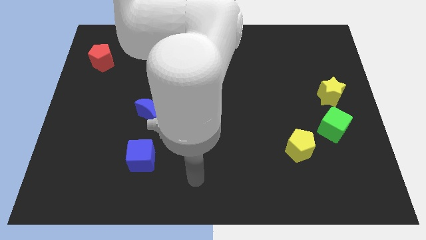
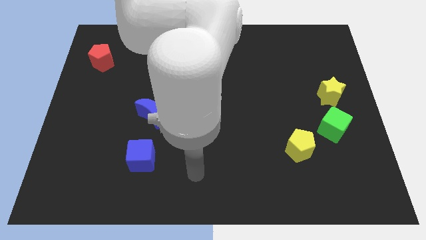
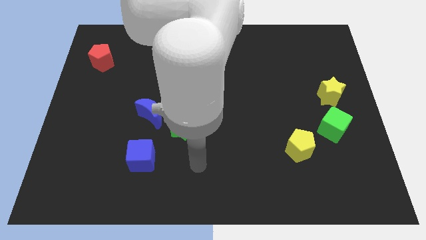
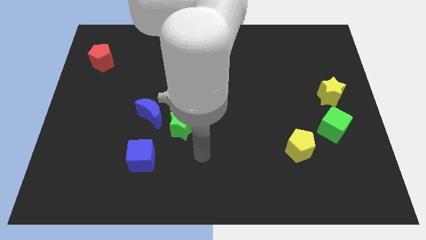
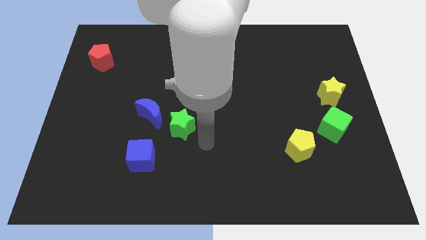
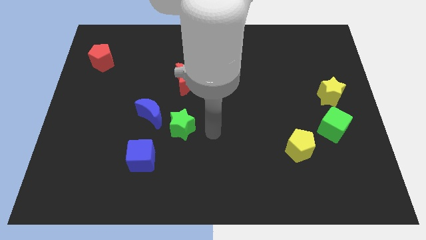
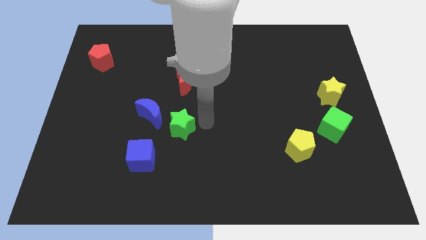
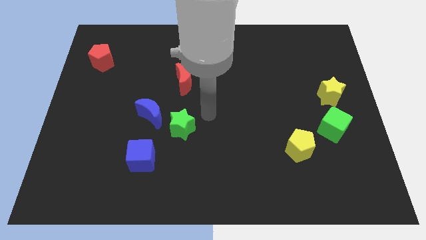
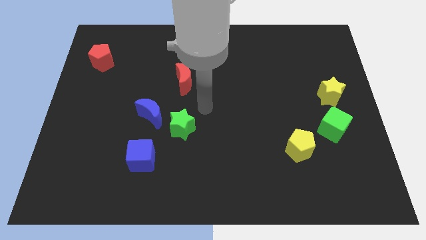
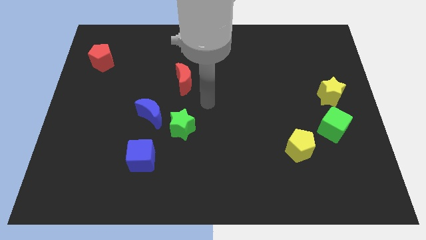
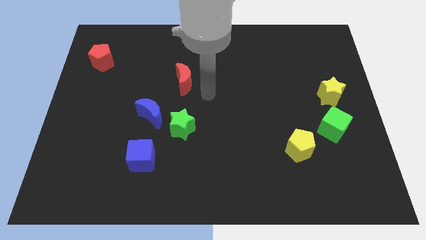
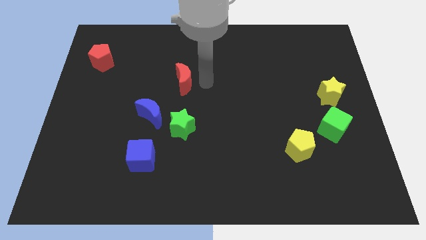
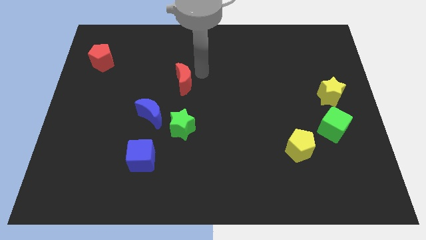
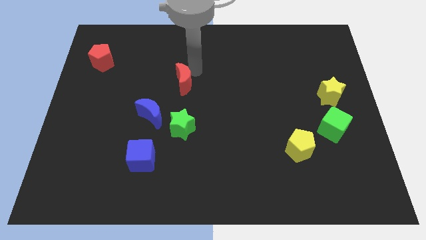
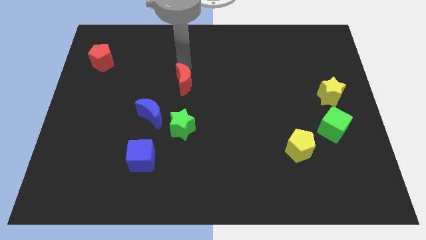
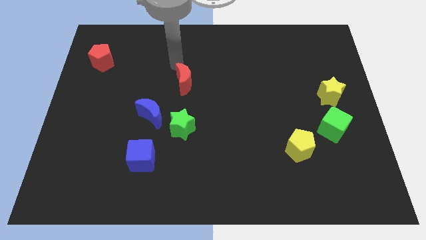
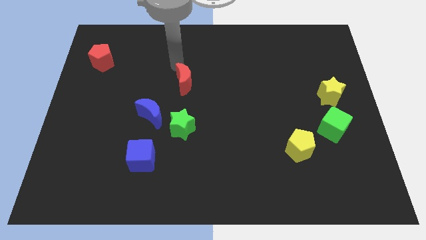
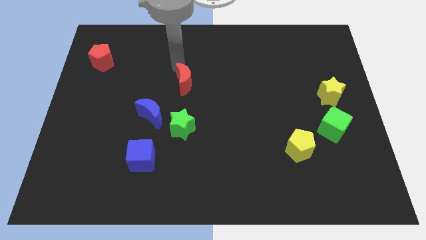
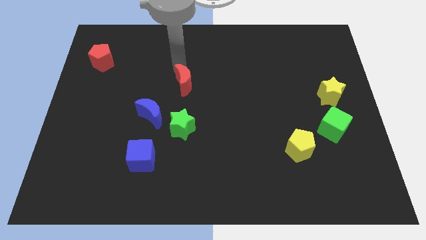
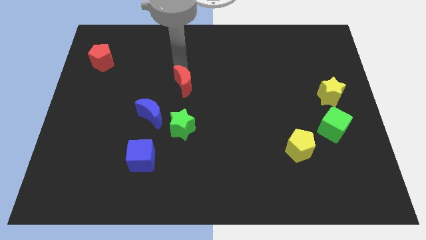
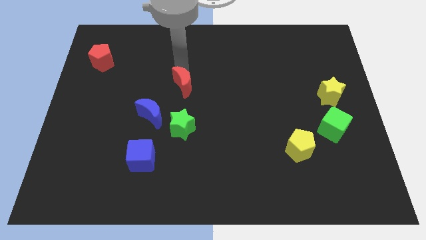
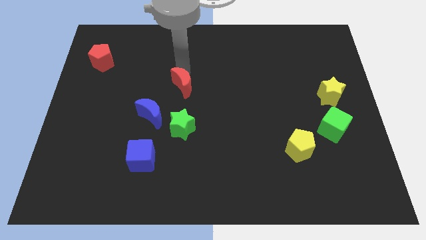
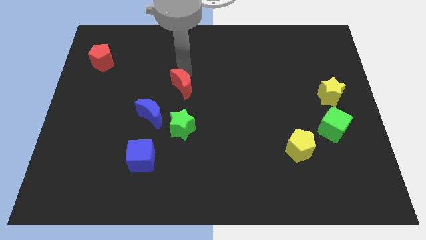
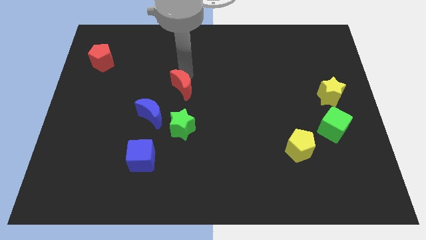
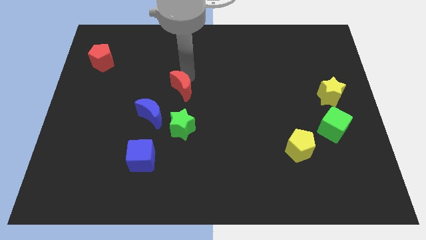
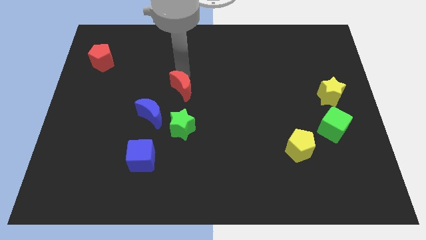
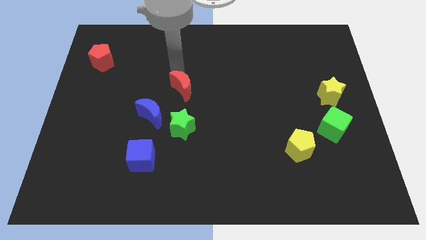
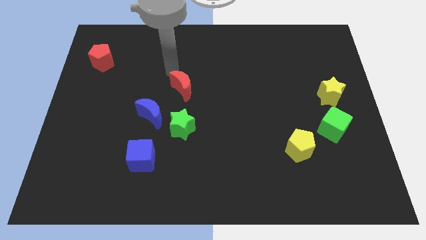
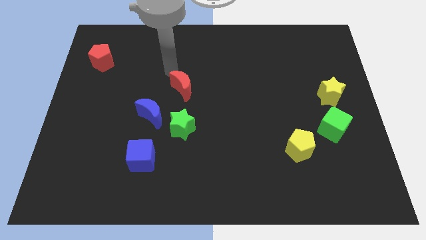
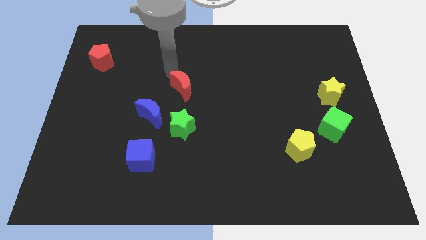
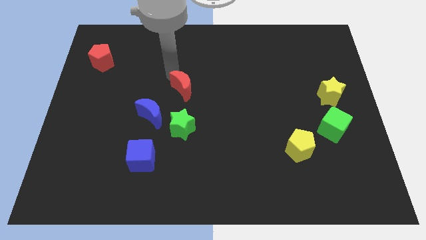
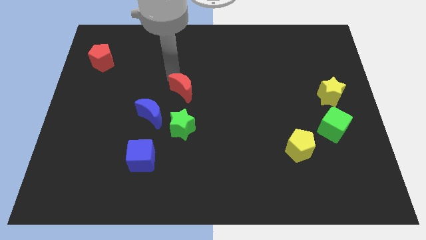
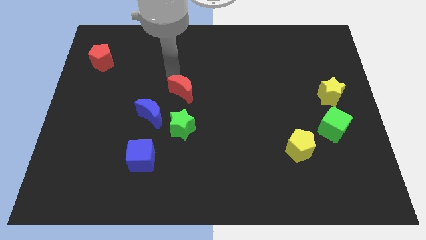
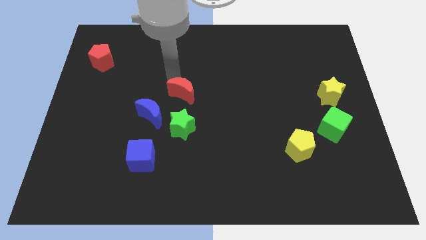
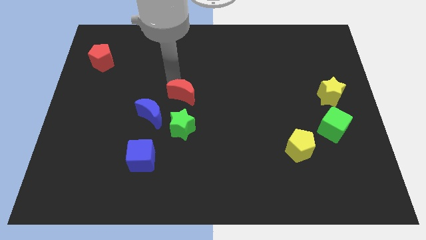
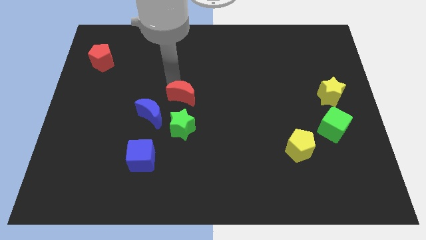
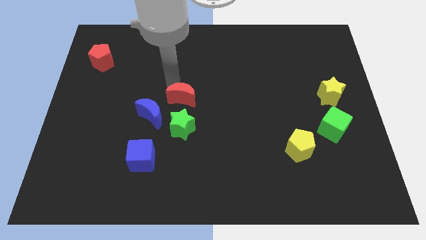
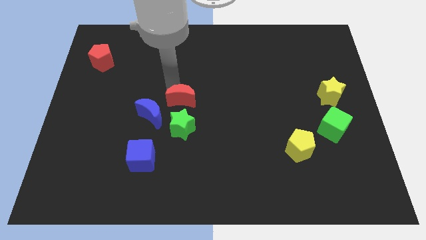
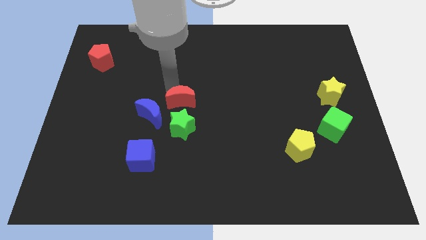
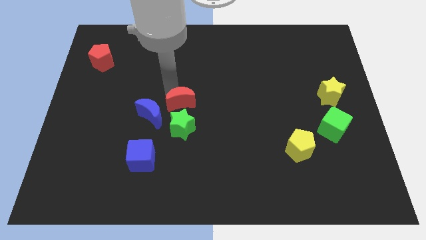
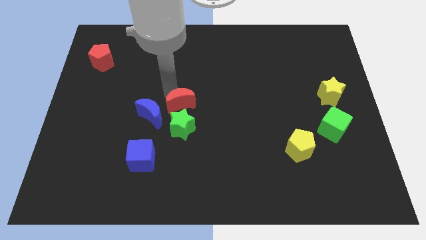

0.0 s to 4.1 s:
move the red moon a bit down

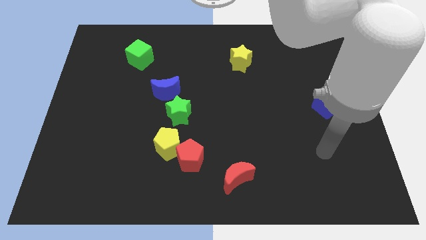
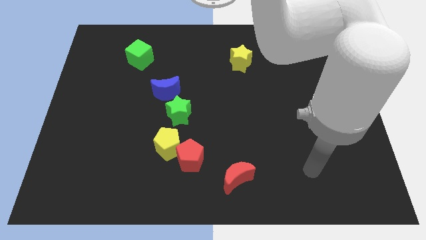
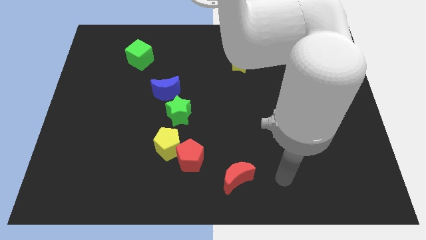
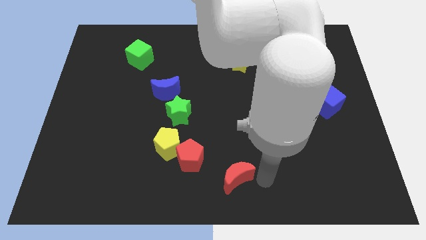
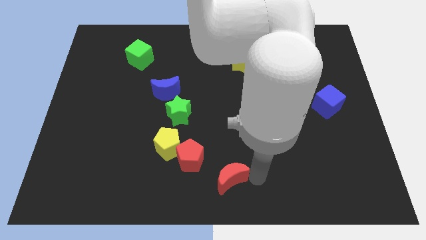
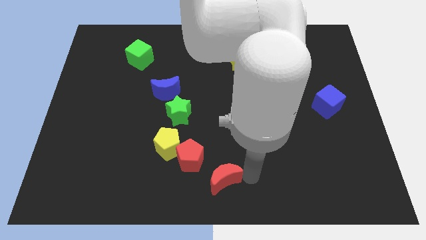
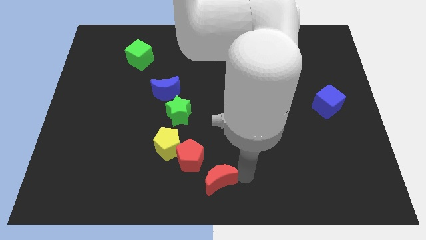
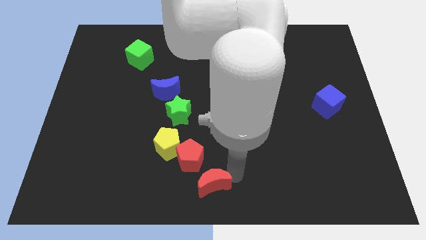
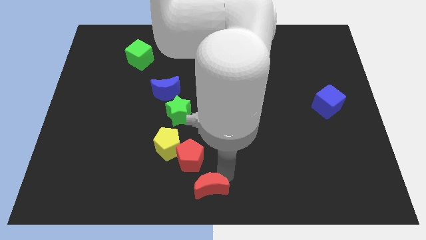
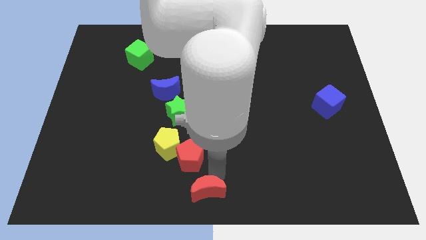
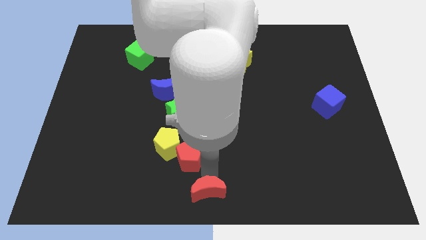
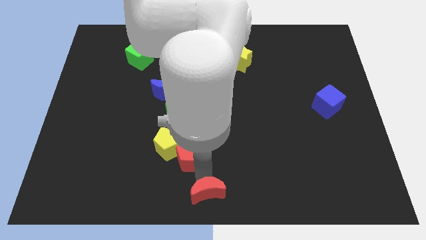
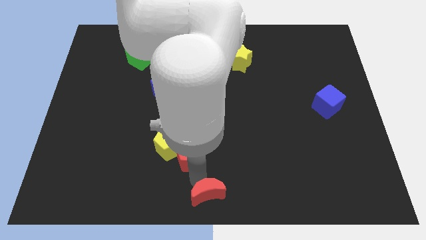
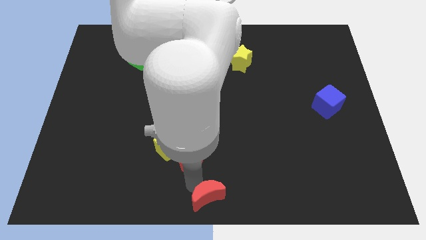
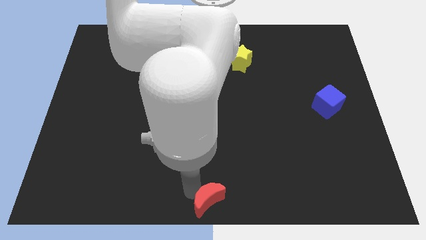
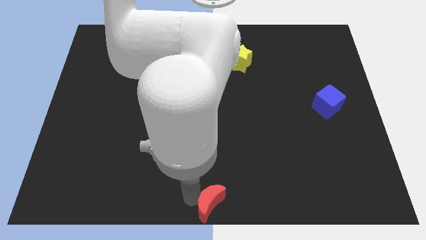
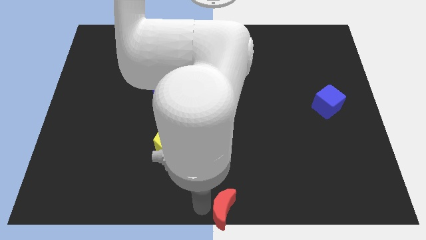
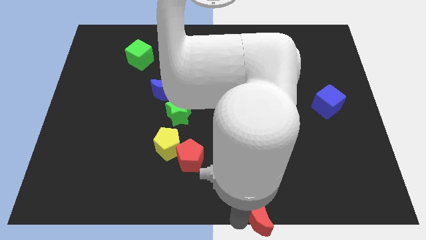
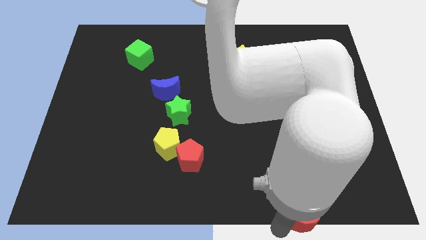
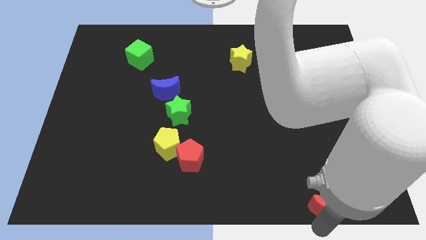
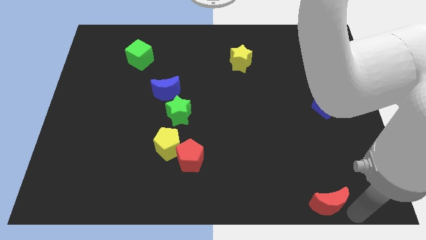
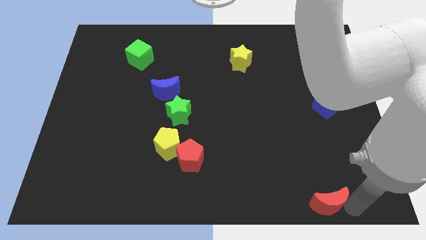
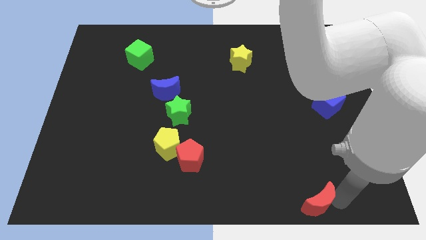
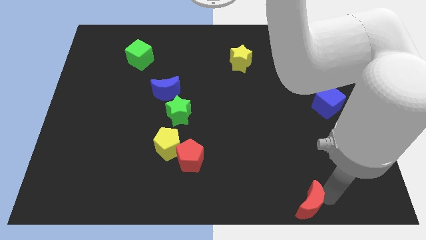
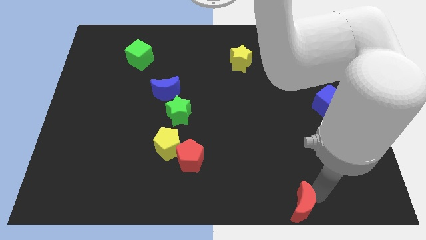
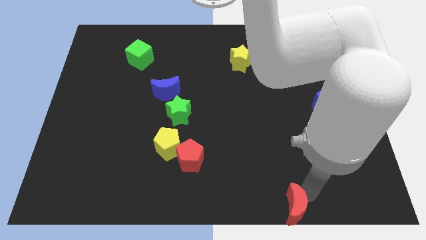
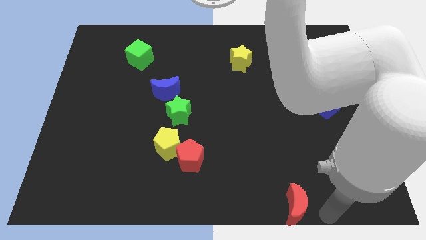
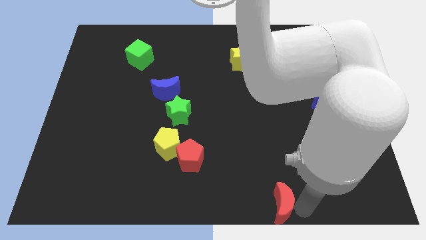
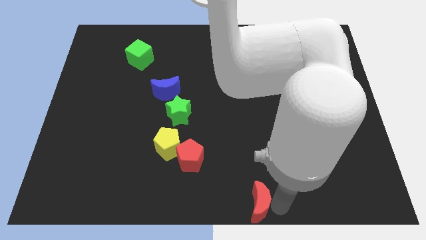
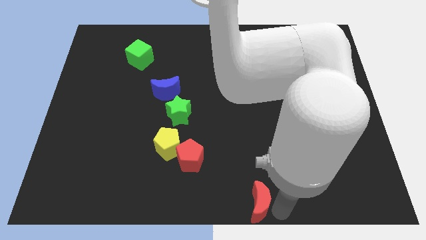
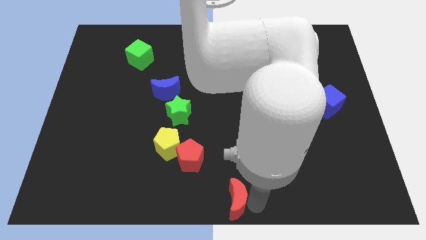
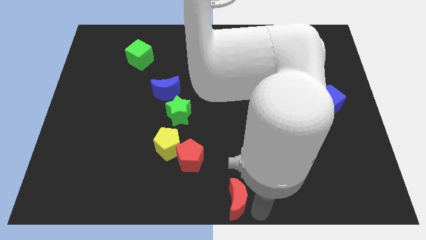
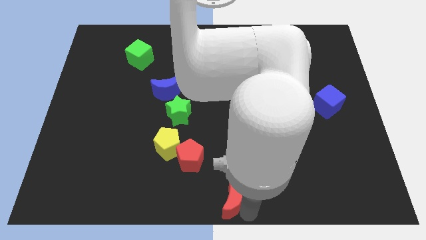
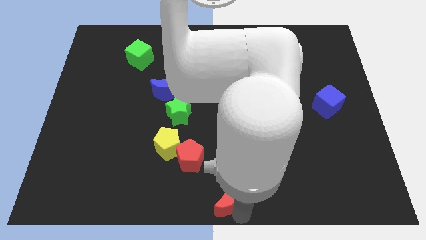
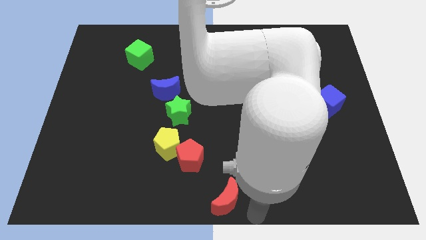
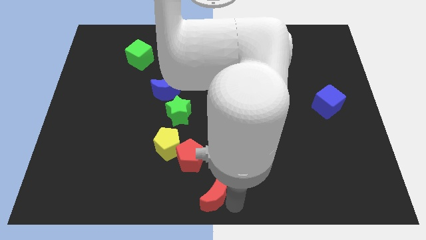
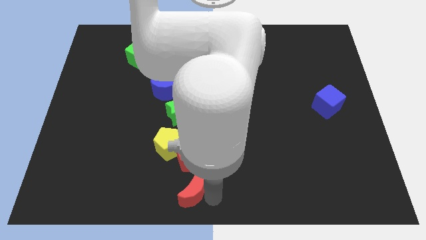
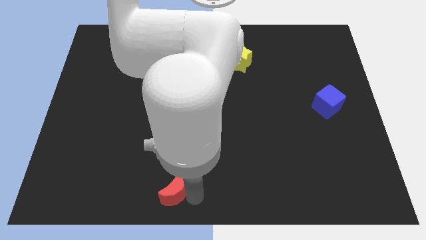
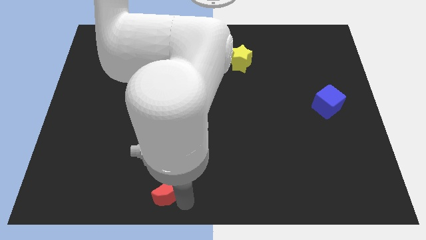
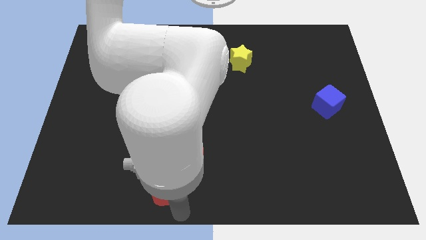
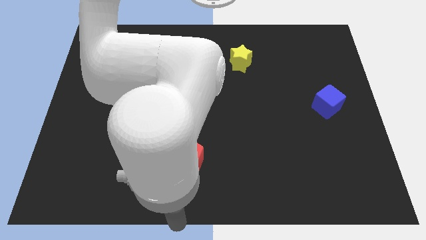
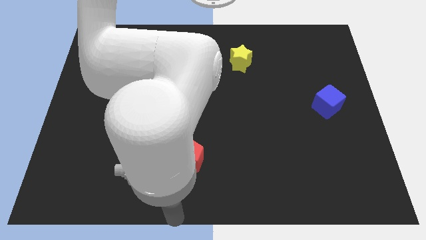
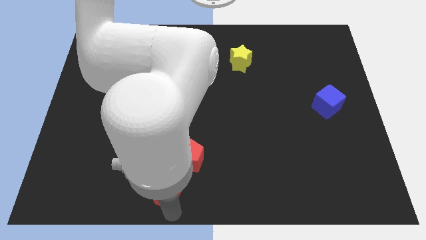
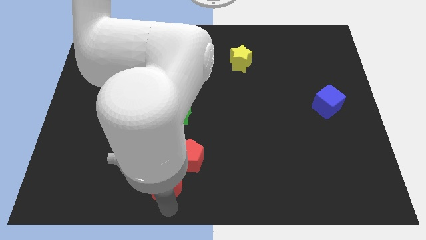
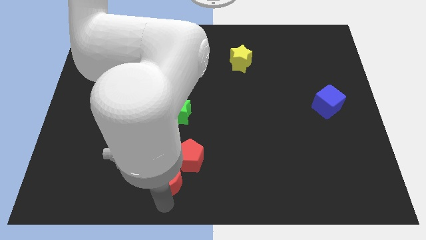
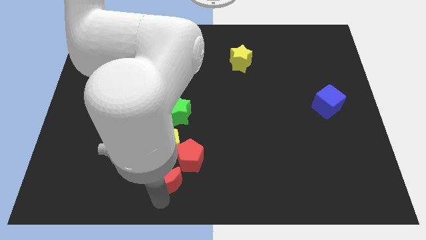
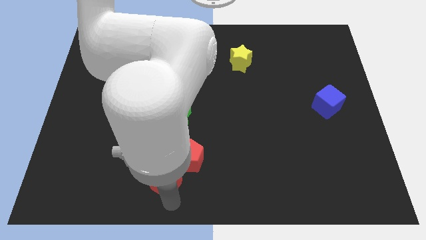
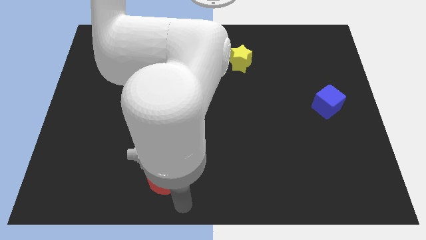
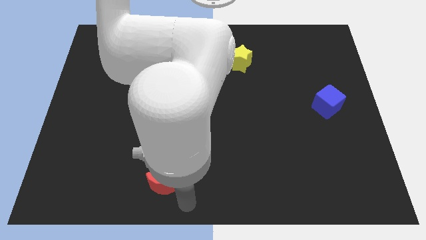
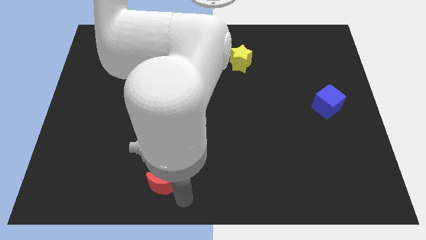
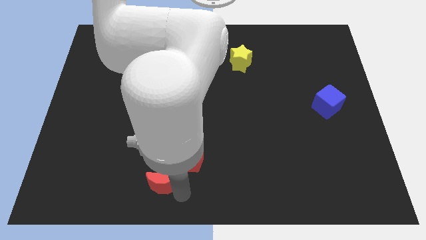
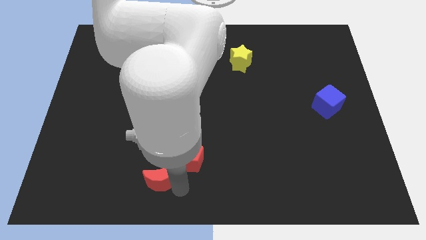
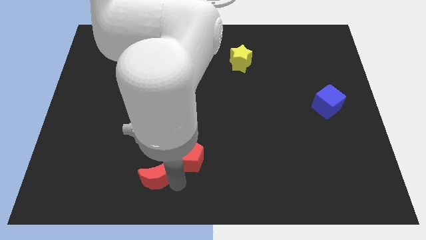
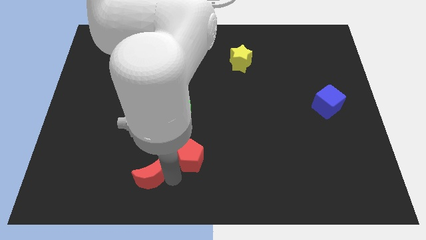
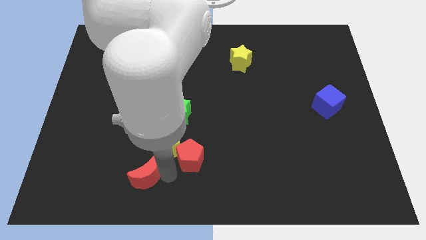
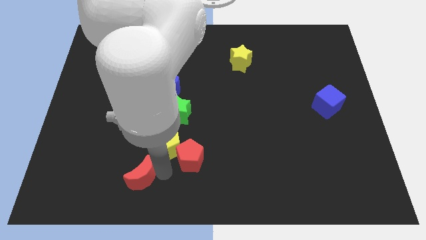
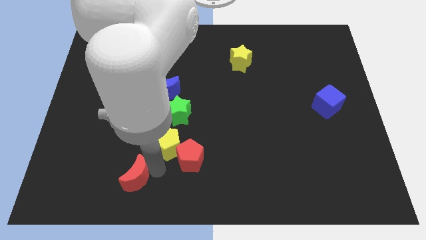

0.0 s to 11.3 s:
move the red moon left
